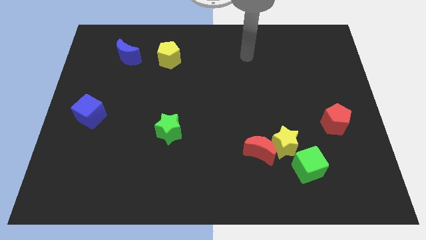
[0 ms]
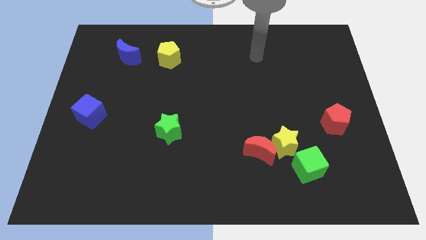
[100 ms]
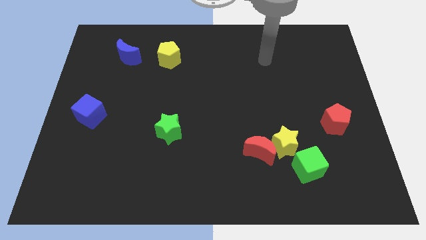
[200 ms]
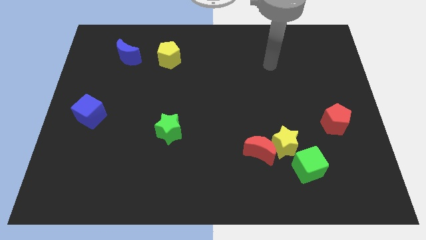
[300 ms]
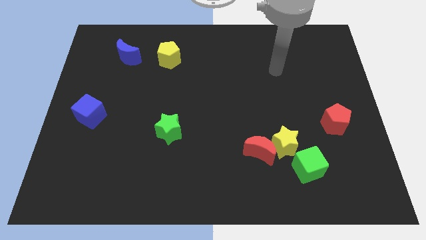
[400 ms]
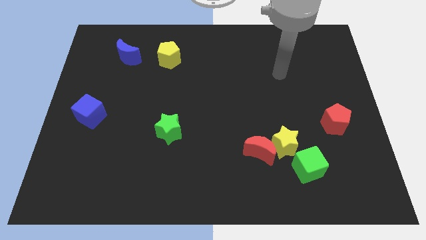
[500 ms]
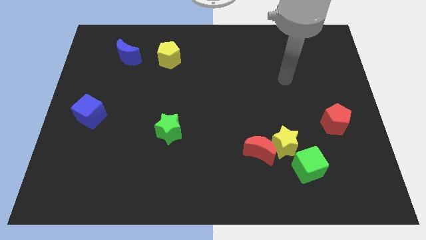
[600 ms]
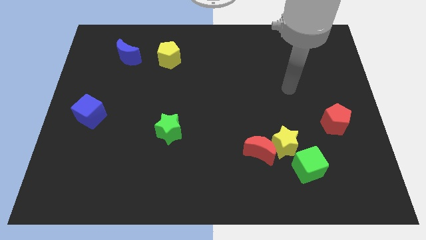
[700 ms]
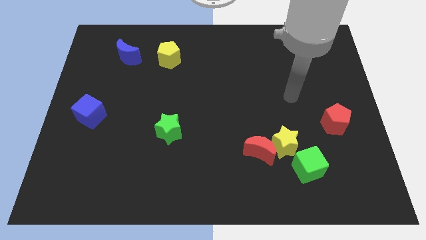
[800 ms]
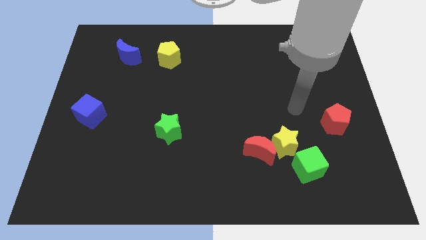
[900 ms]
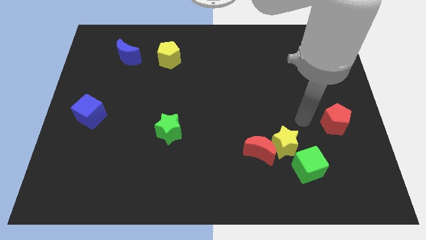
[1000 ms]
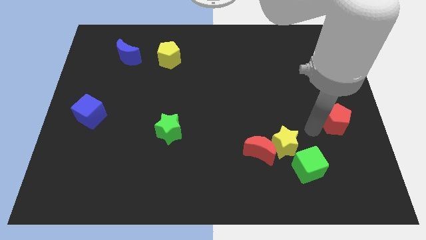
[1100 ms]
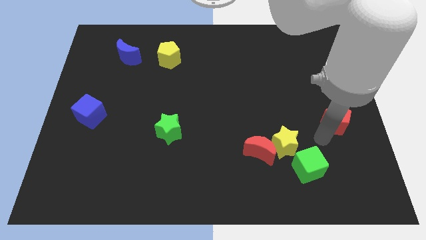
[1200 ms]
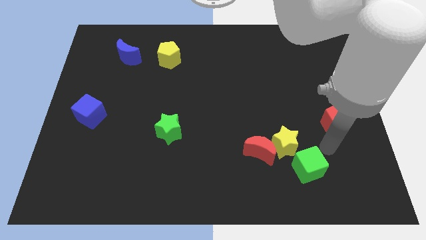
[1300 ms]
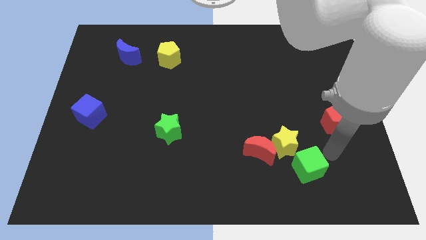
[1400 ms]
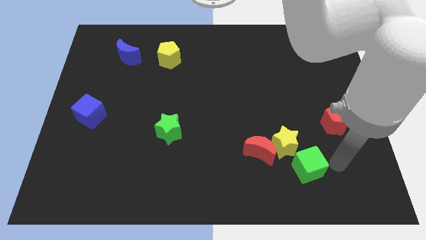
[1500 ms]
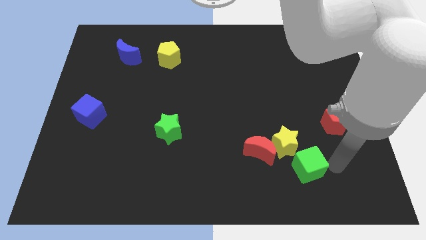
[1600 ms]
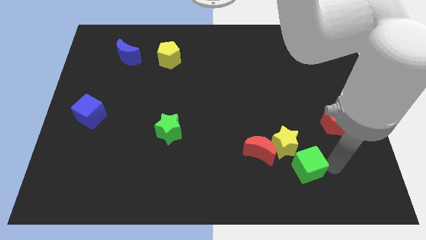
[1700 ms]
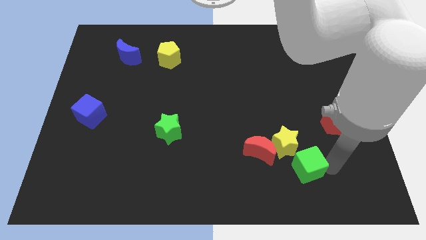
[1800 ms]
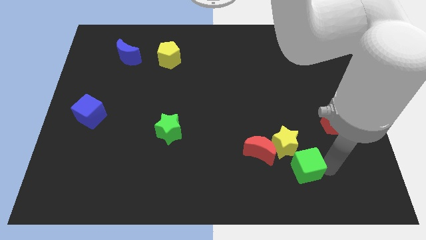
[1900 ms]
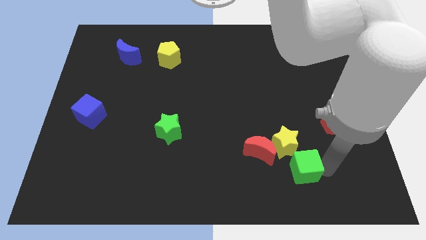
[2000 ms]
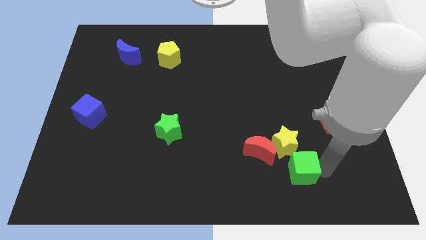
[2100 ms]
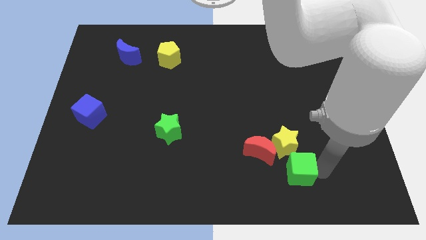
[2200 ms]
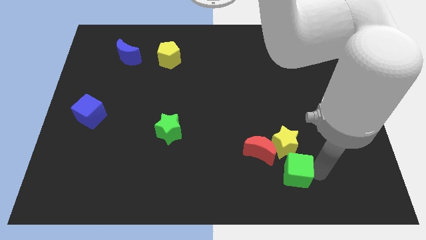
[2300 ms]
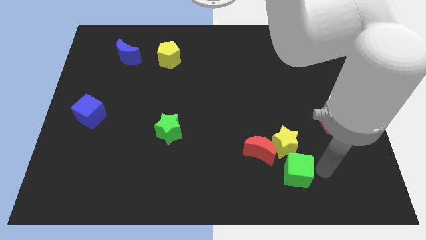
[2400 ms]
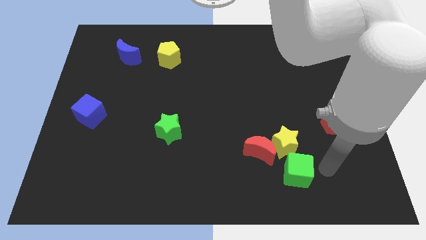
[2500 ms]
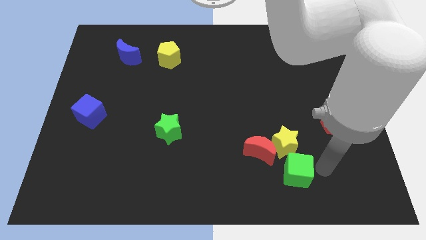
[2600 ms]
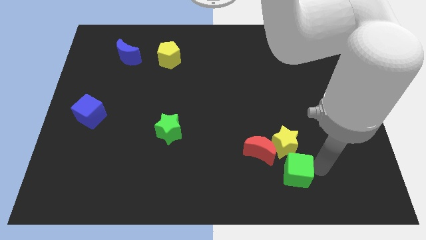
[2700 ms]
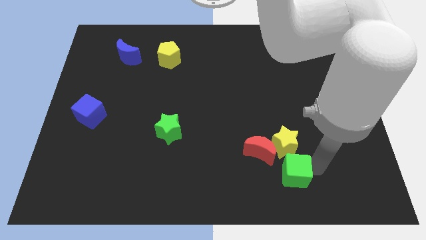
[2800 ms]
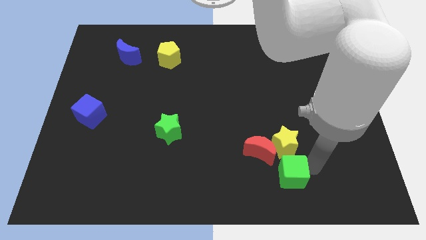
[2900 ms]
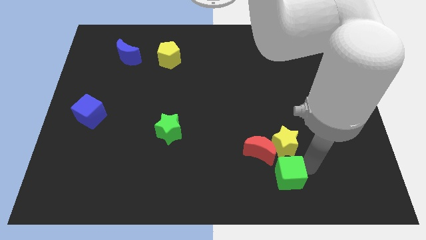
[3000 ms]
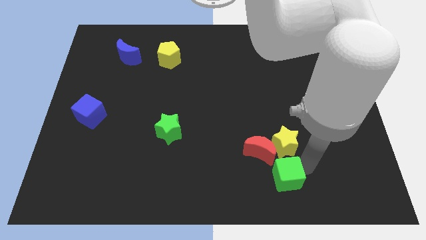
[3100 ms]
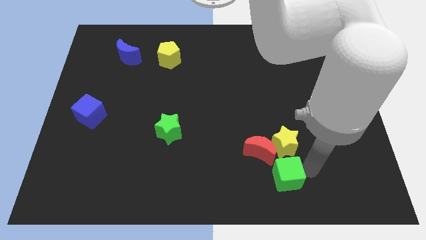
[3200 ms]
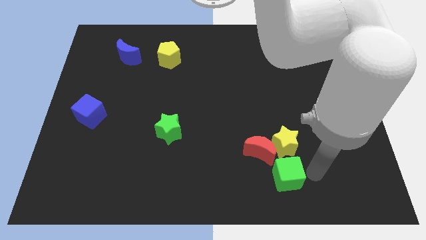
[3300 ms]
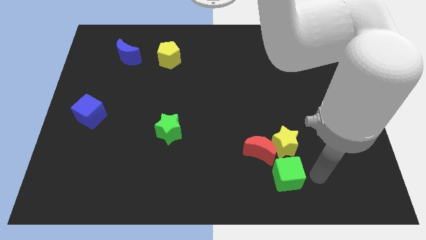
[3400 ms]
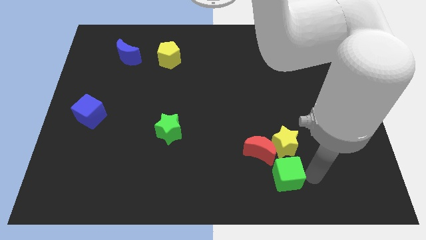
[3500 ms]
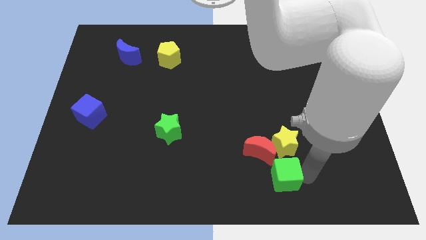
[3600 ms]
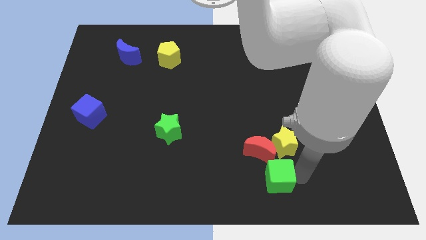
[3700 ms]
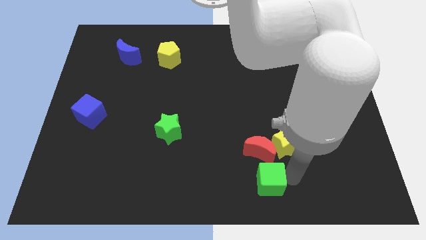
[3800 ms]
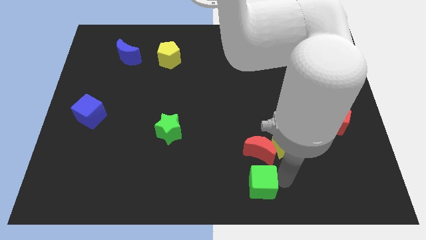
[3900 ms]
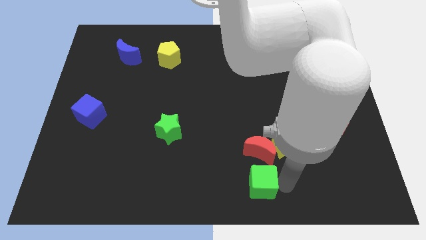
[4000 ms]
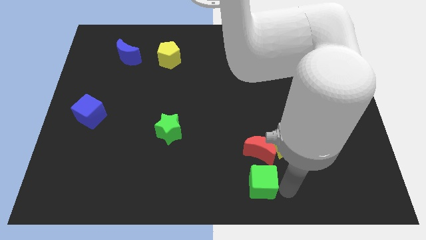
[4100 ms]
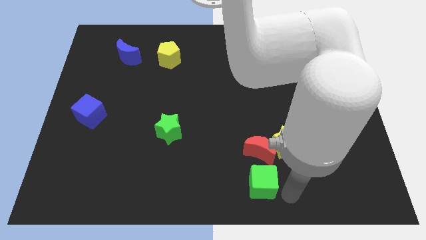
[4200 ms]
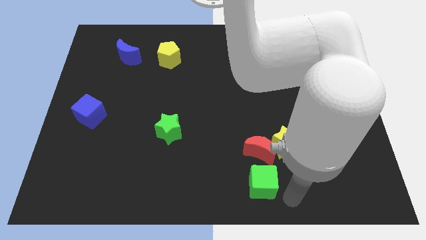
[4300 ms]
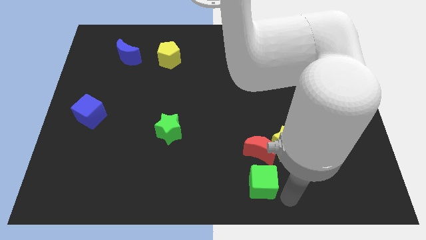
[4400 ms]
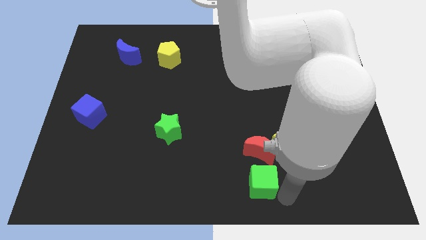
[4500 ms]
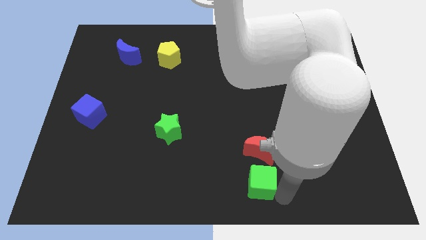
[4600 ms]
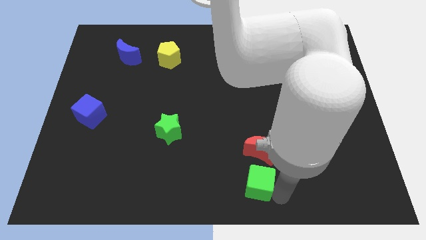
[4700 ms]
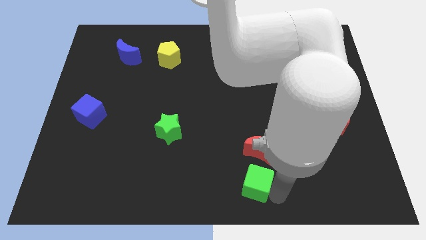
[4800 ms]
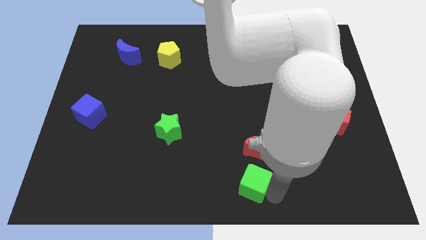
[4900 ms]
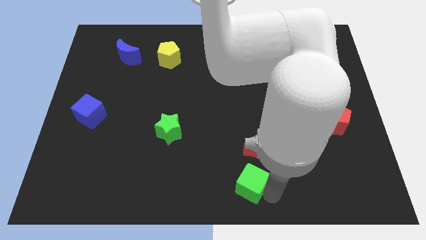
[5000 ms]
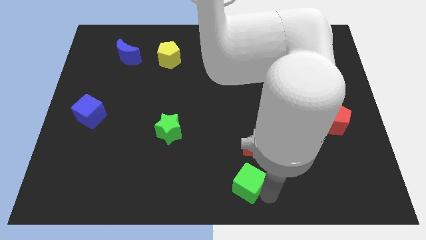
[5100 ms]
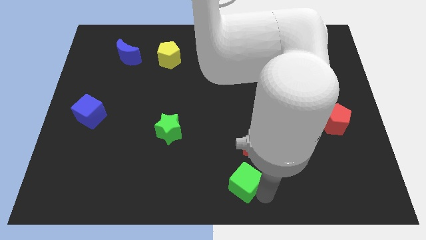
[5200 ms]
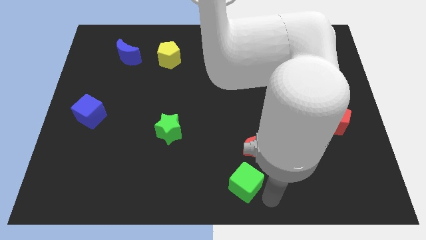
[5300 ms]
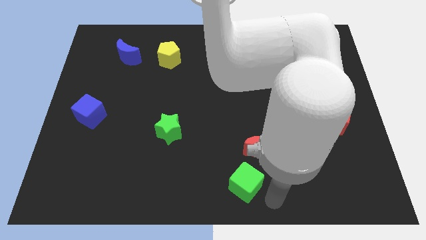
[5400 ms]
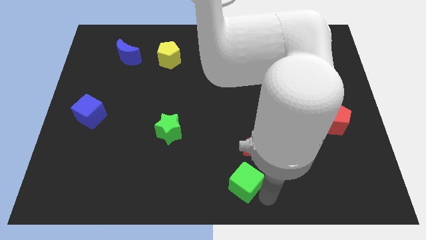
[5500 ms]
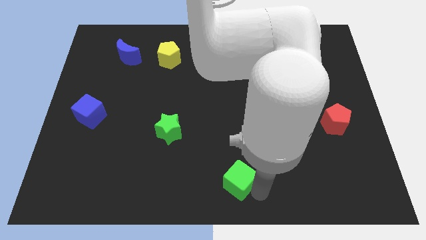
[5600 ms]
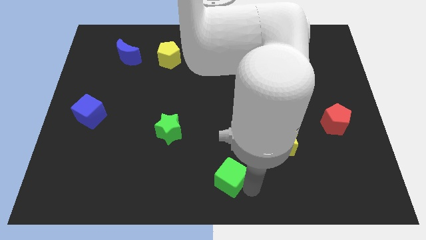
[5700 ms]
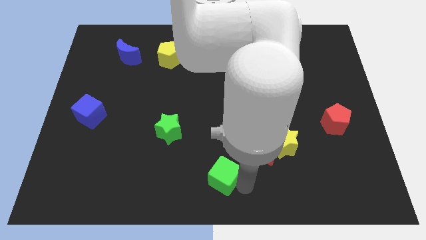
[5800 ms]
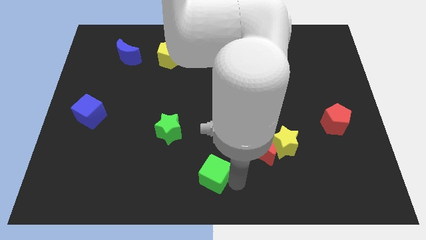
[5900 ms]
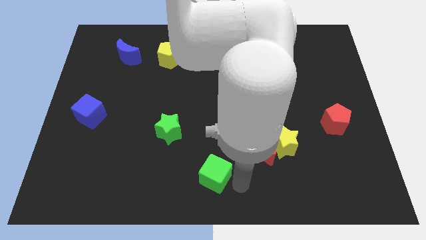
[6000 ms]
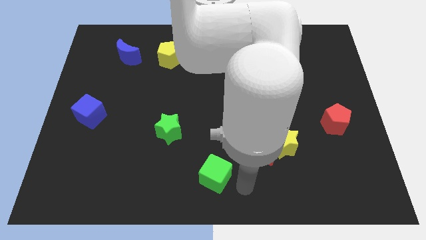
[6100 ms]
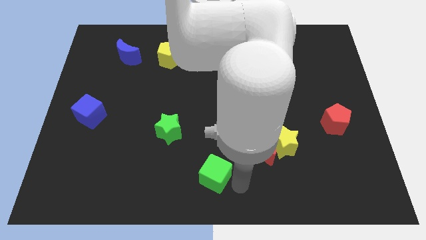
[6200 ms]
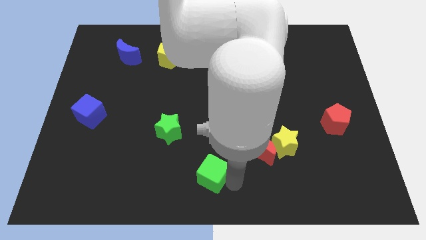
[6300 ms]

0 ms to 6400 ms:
move the green cube to the left

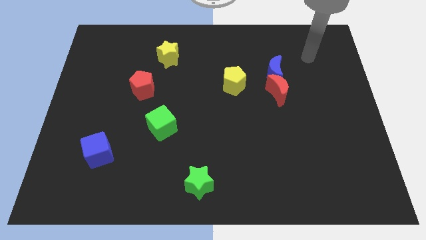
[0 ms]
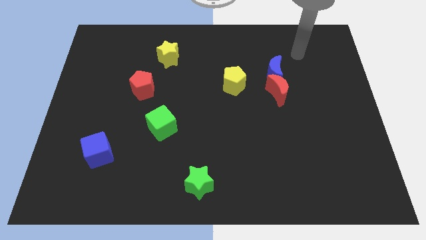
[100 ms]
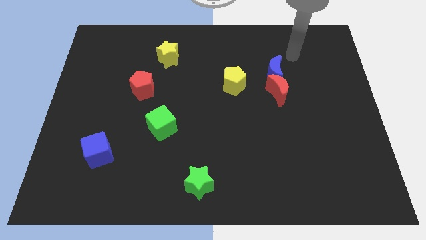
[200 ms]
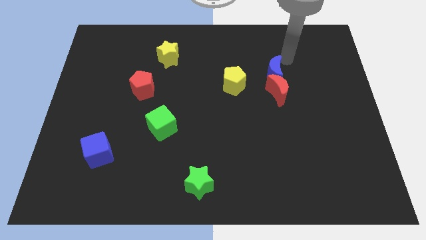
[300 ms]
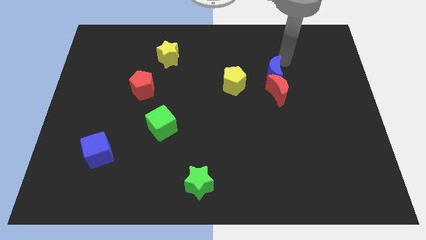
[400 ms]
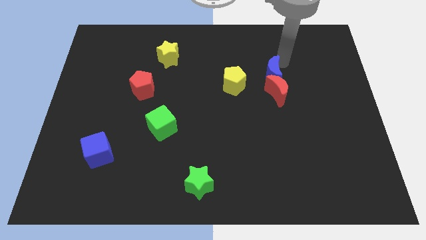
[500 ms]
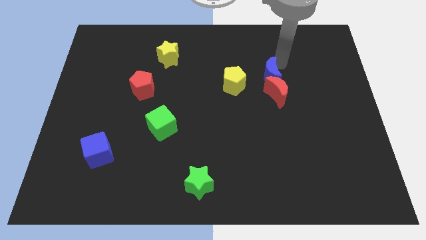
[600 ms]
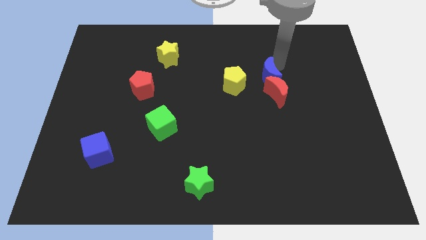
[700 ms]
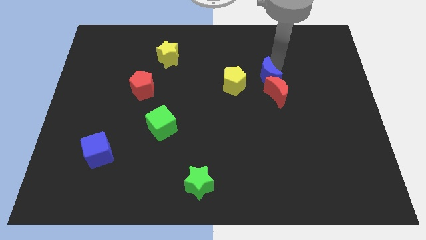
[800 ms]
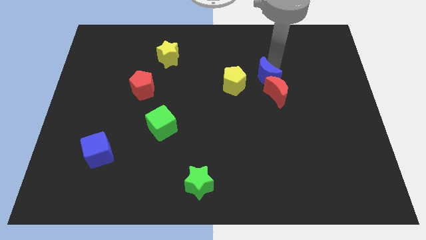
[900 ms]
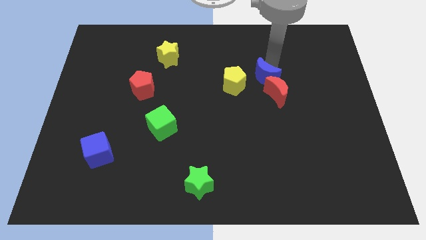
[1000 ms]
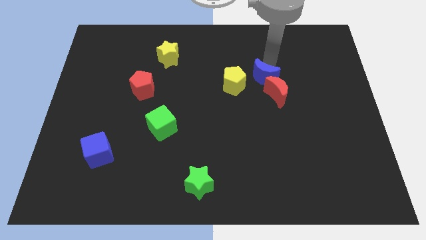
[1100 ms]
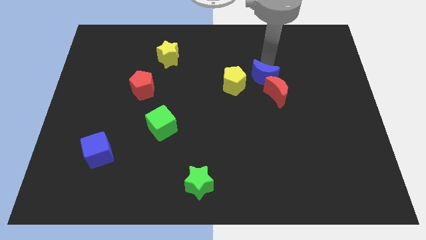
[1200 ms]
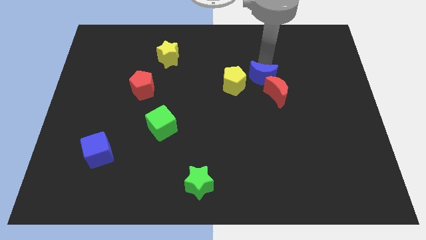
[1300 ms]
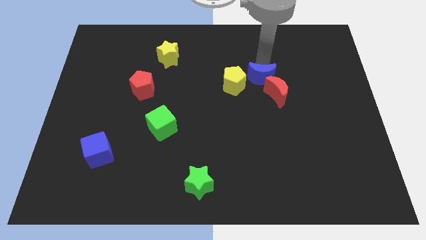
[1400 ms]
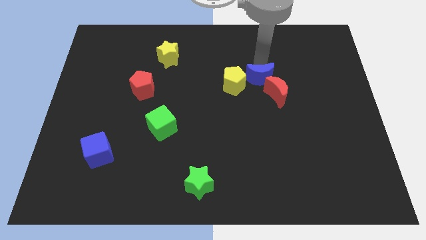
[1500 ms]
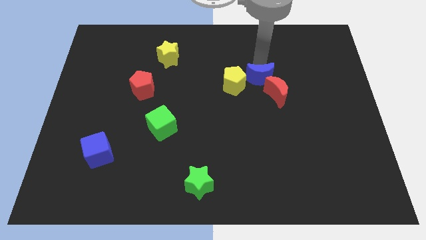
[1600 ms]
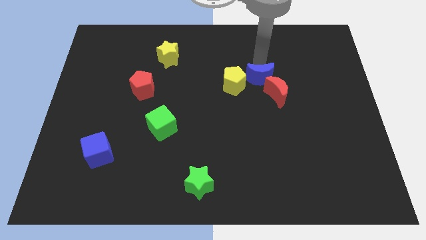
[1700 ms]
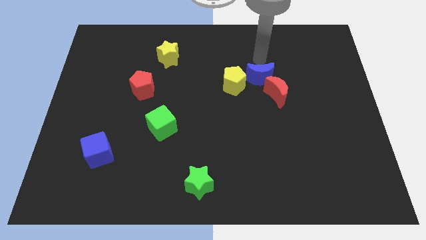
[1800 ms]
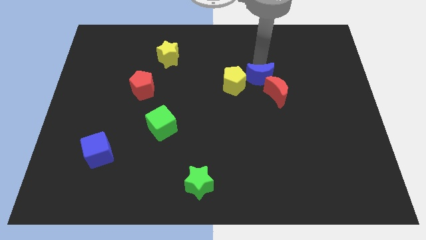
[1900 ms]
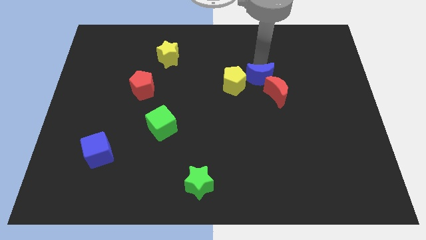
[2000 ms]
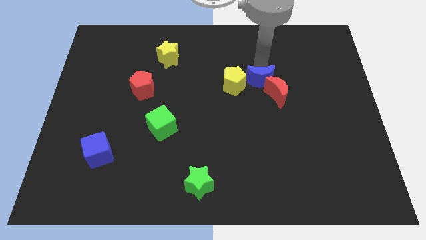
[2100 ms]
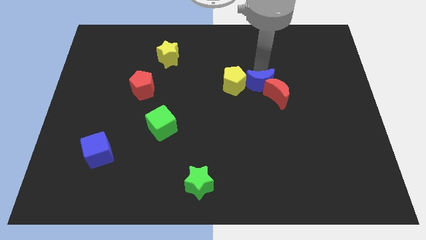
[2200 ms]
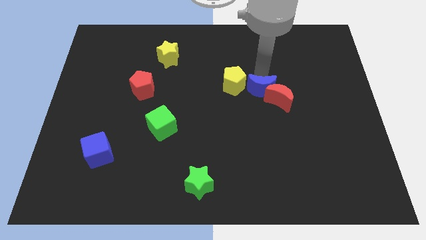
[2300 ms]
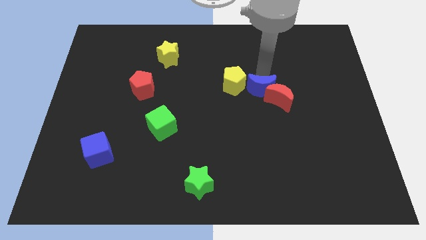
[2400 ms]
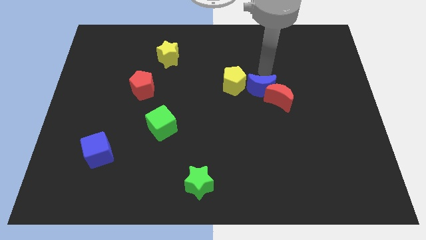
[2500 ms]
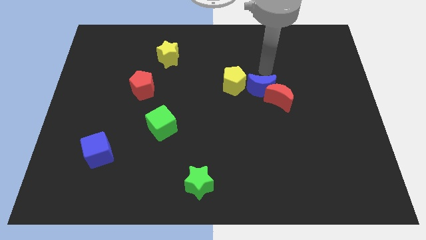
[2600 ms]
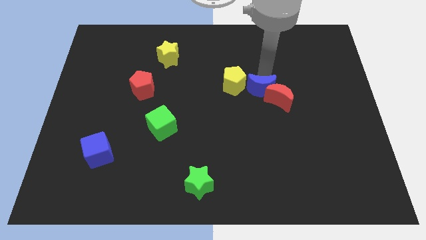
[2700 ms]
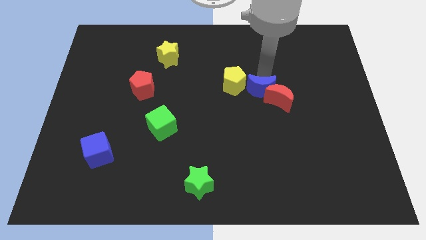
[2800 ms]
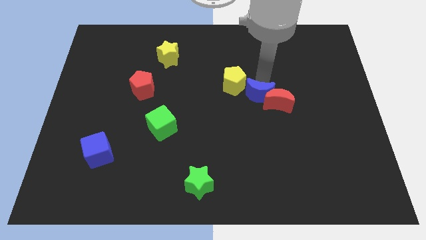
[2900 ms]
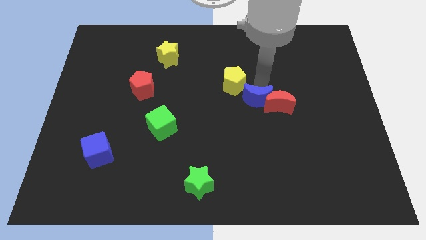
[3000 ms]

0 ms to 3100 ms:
slide the blue moon a little bit down
